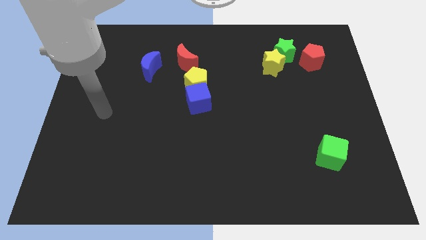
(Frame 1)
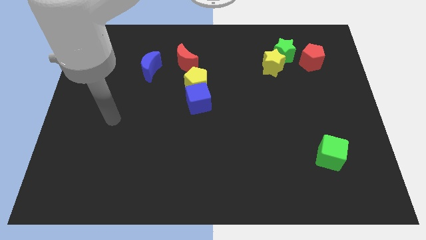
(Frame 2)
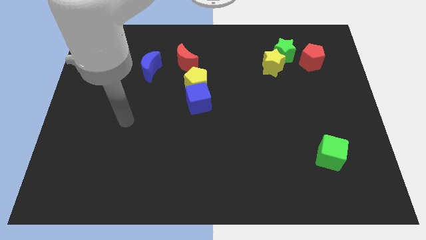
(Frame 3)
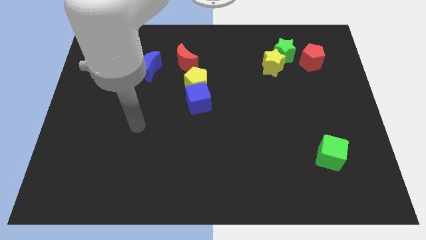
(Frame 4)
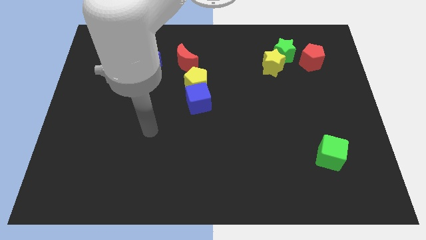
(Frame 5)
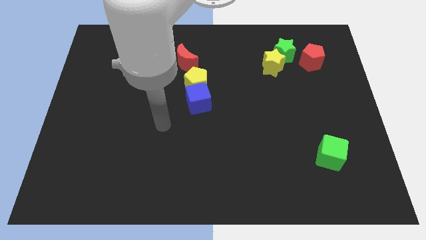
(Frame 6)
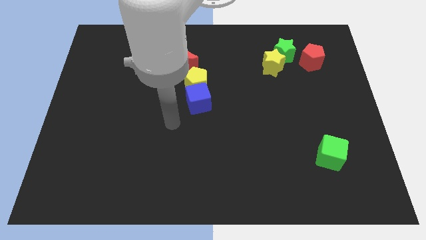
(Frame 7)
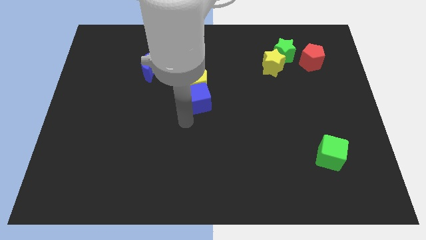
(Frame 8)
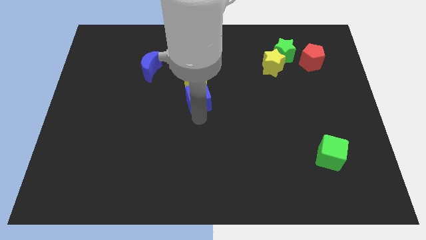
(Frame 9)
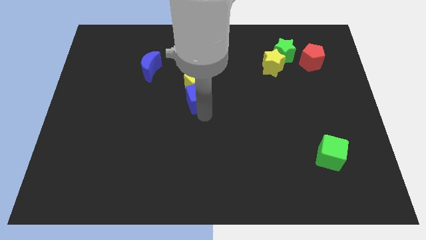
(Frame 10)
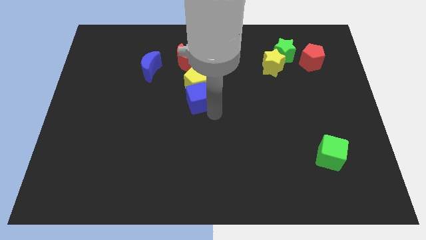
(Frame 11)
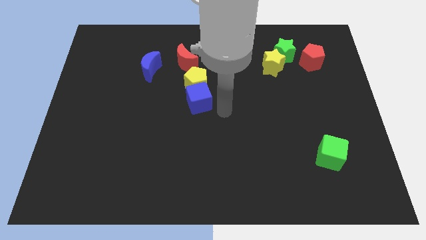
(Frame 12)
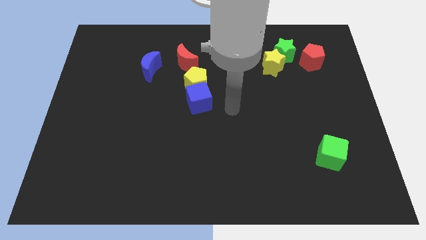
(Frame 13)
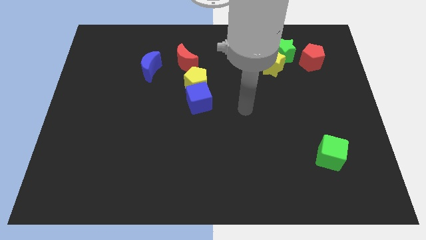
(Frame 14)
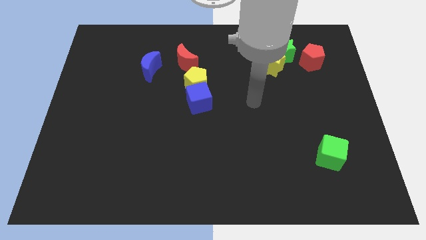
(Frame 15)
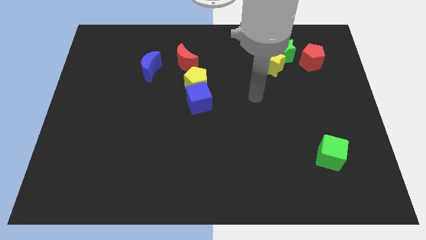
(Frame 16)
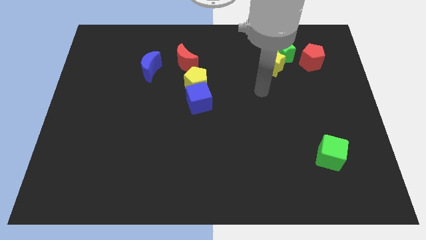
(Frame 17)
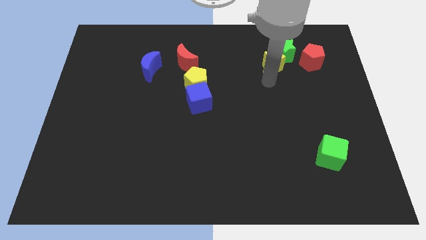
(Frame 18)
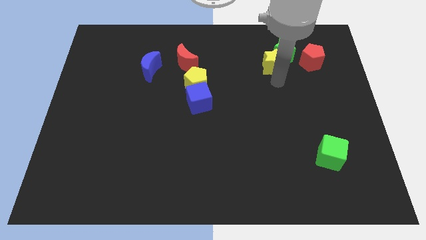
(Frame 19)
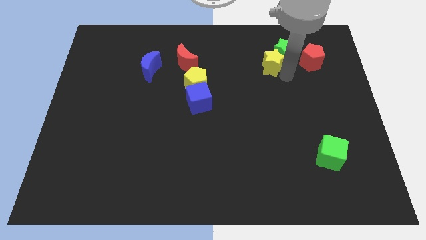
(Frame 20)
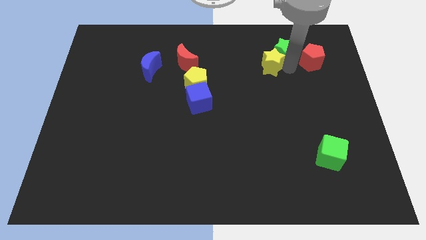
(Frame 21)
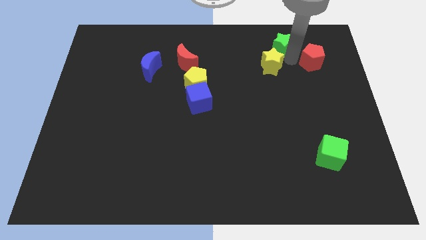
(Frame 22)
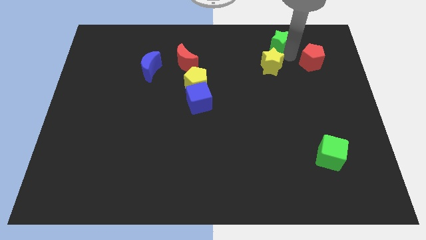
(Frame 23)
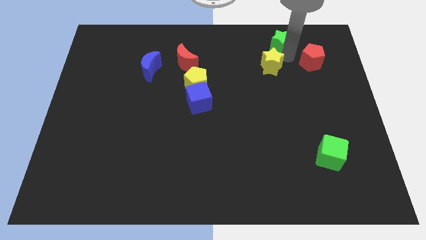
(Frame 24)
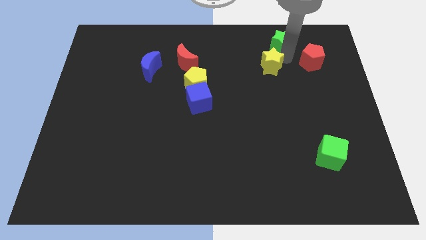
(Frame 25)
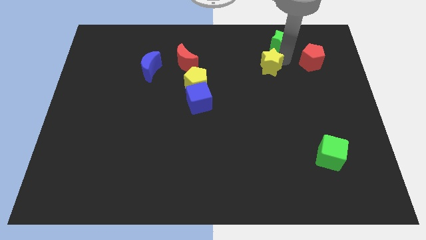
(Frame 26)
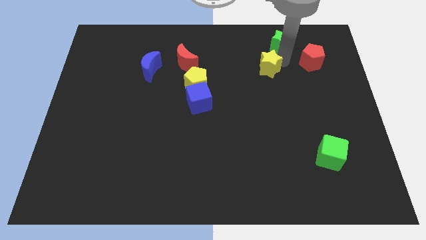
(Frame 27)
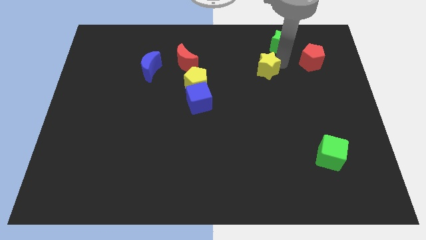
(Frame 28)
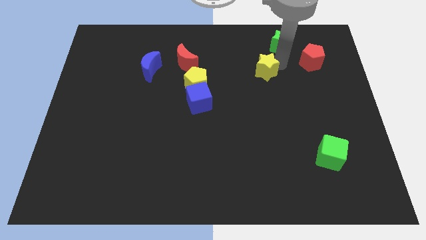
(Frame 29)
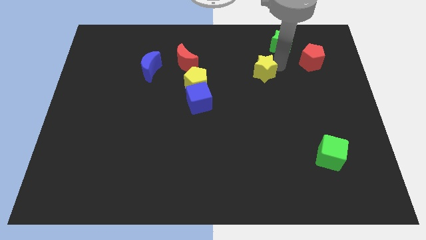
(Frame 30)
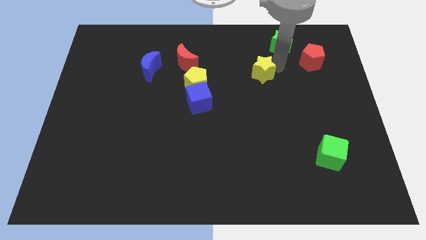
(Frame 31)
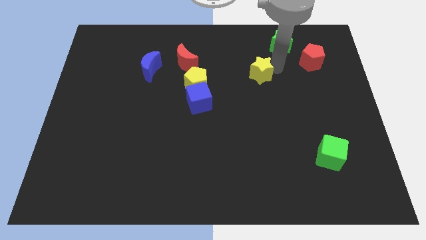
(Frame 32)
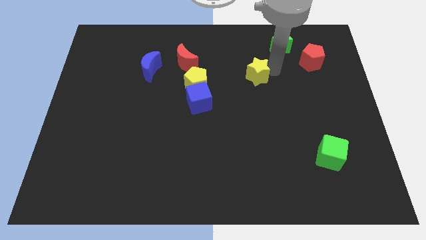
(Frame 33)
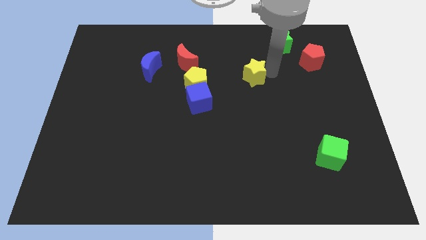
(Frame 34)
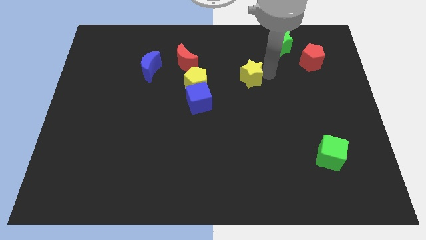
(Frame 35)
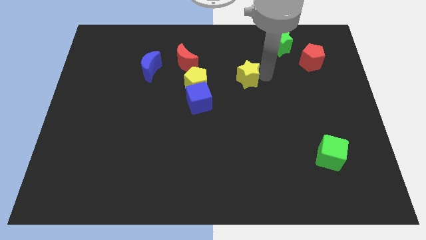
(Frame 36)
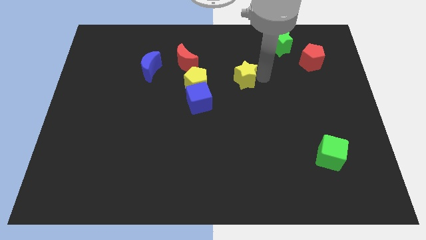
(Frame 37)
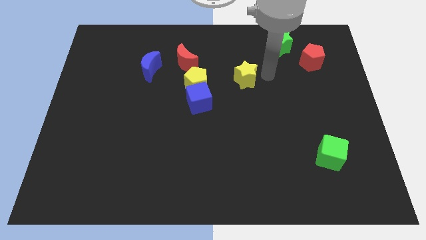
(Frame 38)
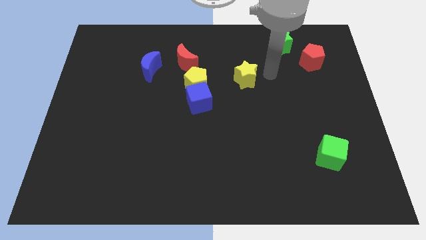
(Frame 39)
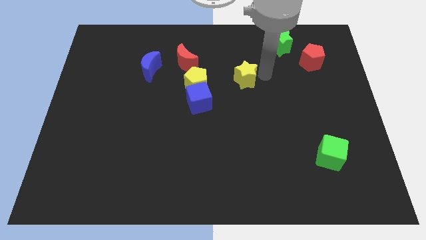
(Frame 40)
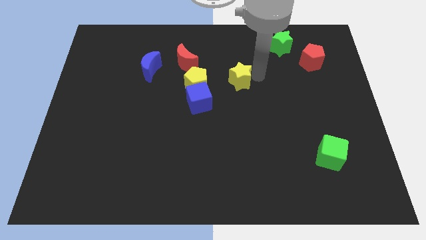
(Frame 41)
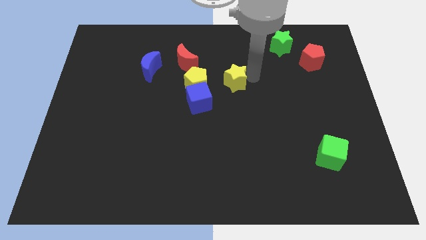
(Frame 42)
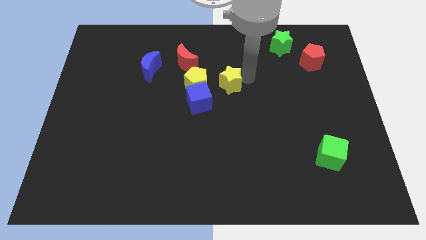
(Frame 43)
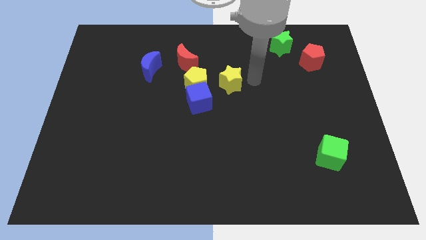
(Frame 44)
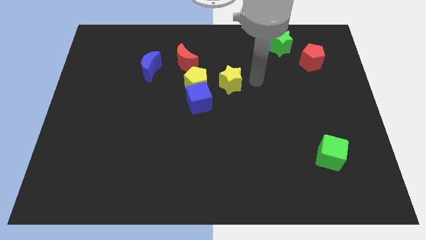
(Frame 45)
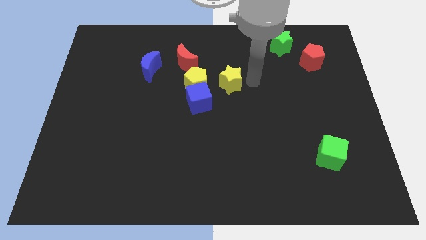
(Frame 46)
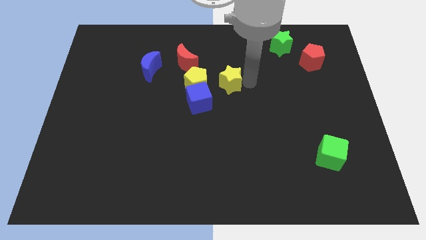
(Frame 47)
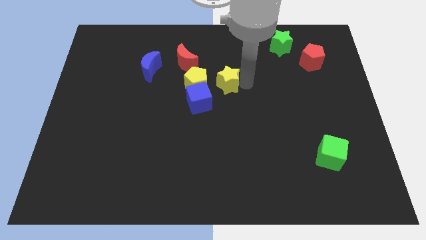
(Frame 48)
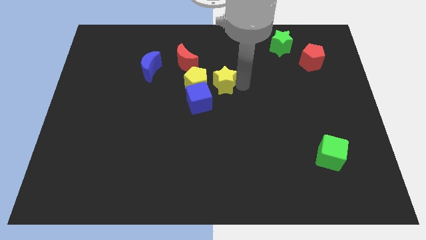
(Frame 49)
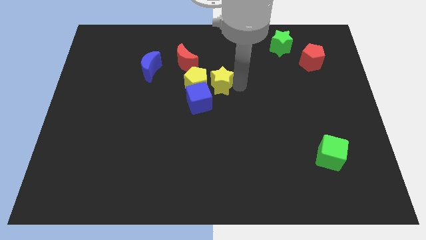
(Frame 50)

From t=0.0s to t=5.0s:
push the yellow star close to the yellow pentagon

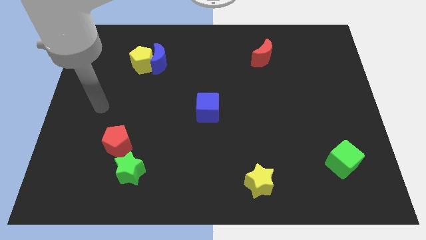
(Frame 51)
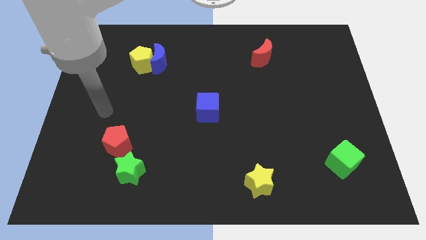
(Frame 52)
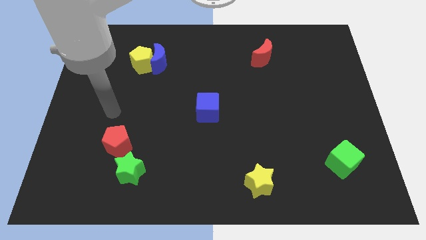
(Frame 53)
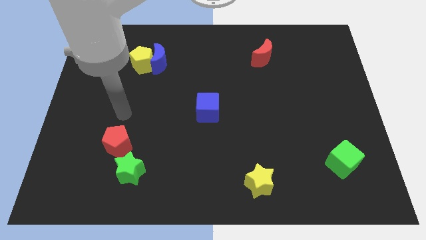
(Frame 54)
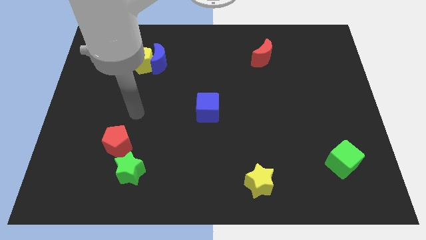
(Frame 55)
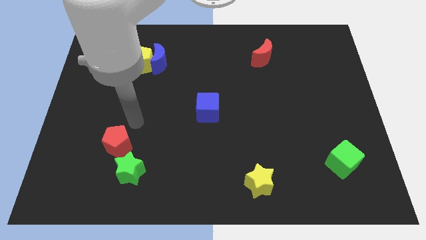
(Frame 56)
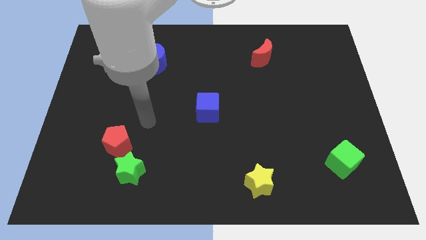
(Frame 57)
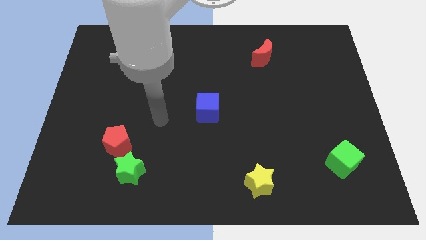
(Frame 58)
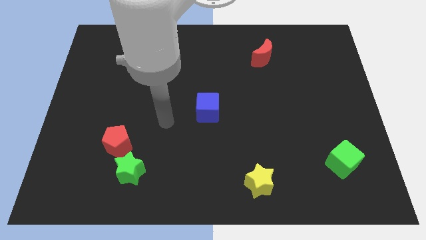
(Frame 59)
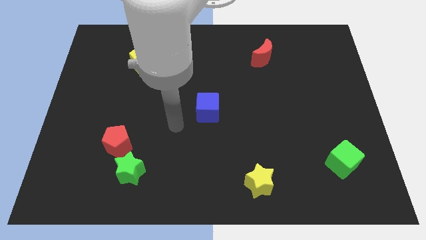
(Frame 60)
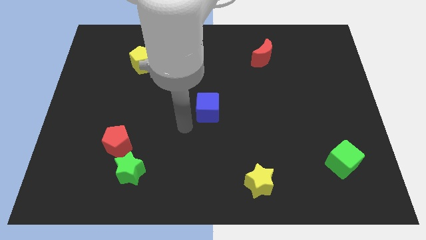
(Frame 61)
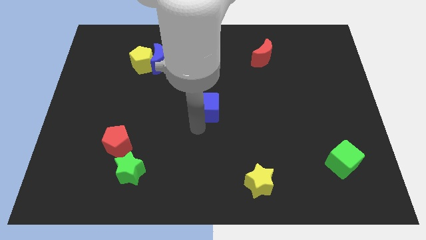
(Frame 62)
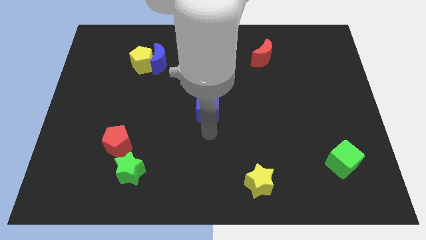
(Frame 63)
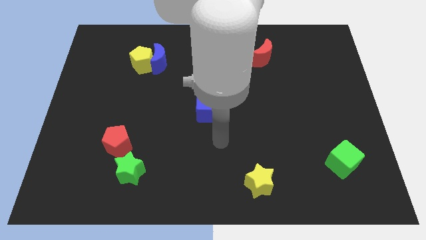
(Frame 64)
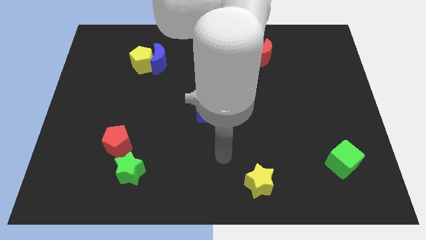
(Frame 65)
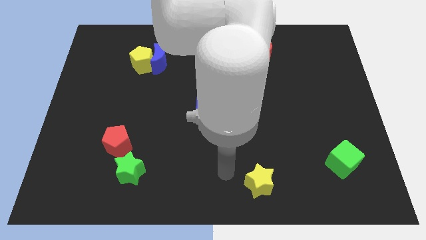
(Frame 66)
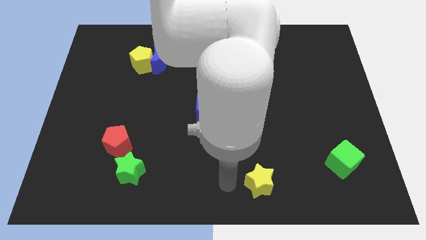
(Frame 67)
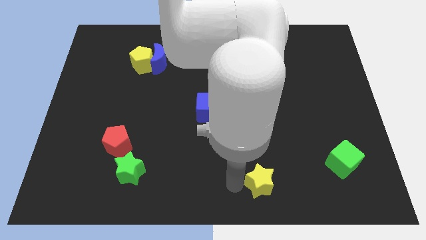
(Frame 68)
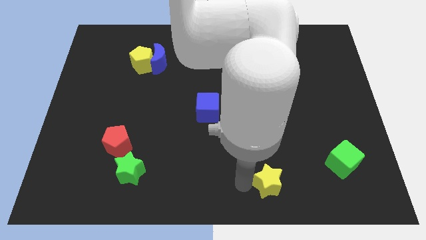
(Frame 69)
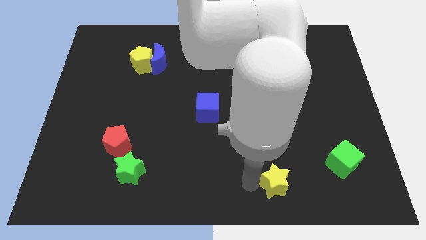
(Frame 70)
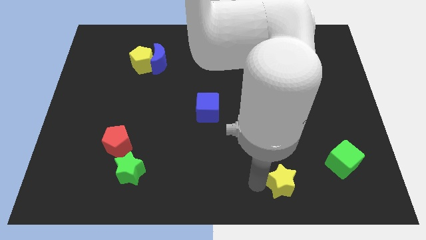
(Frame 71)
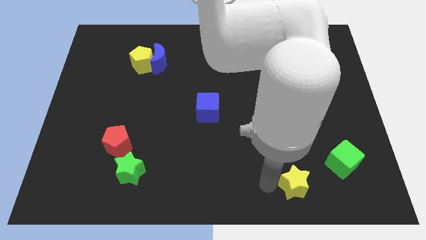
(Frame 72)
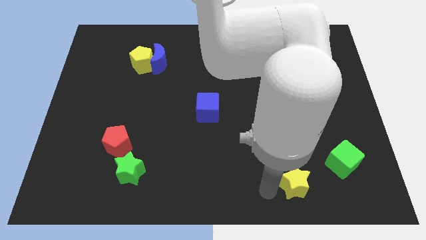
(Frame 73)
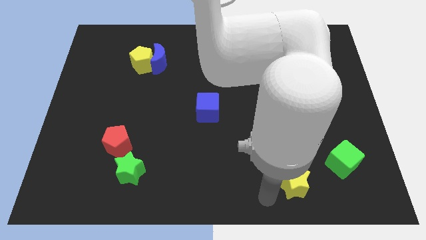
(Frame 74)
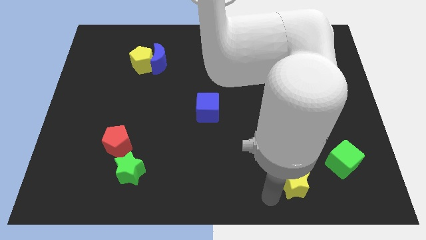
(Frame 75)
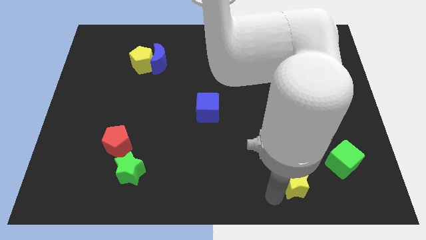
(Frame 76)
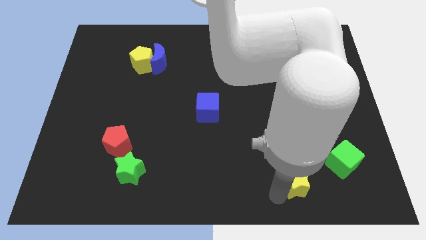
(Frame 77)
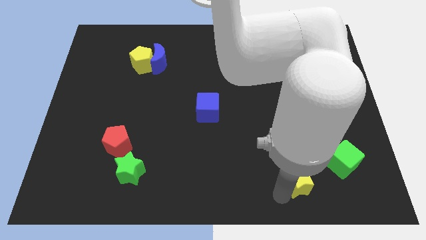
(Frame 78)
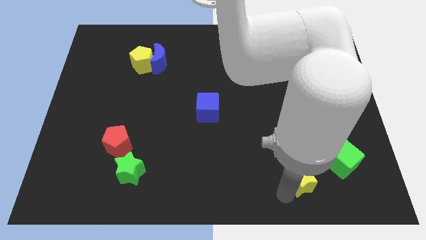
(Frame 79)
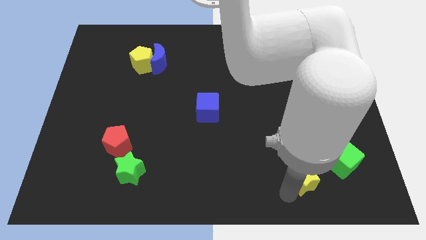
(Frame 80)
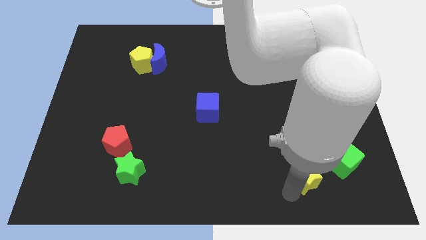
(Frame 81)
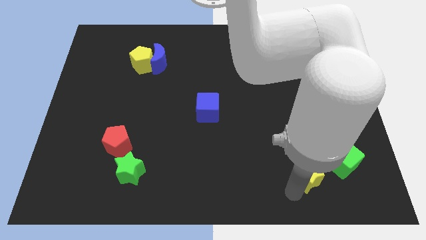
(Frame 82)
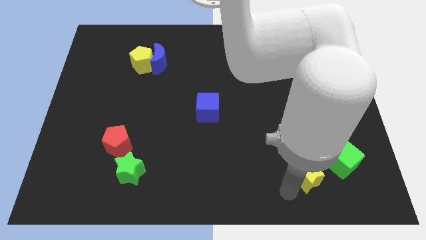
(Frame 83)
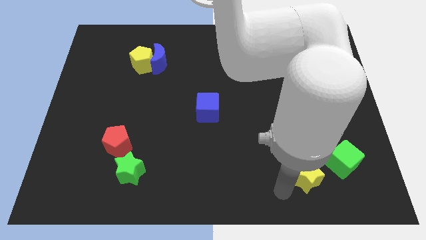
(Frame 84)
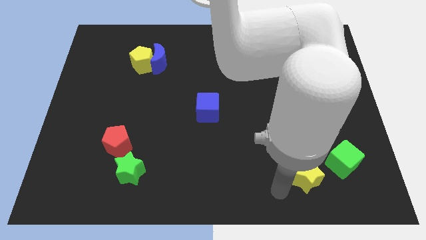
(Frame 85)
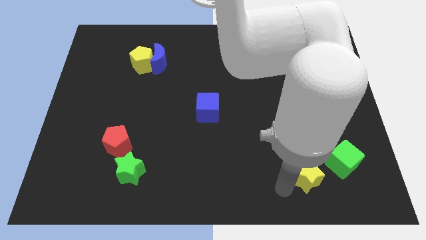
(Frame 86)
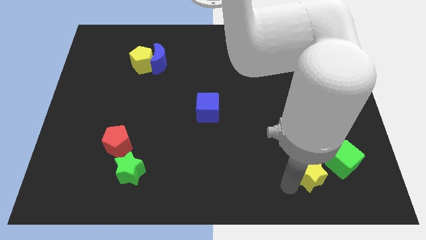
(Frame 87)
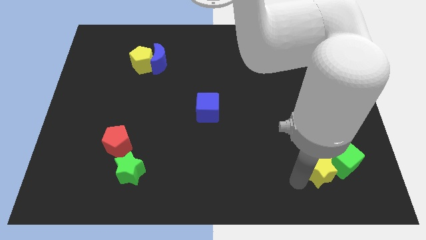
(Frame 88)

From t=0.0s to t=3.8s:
slide the yellow star next to the green cube
